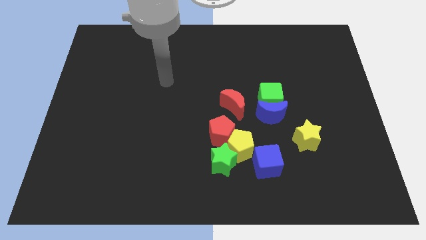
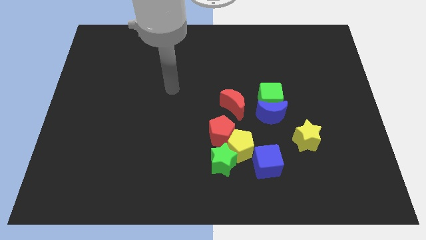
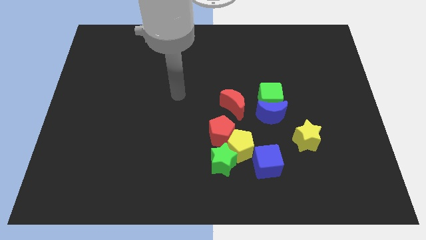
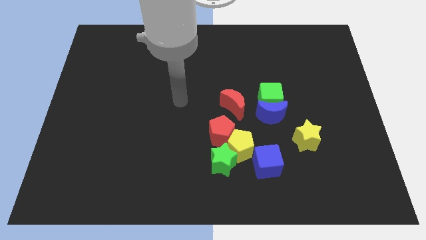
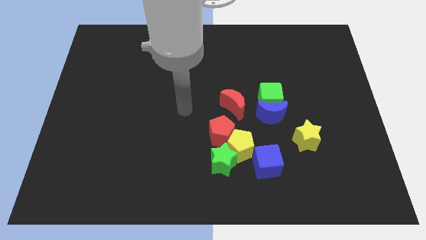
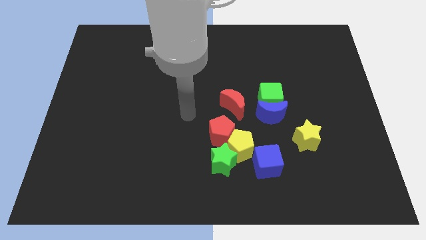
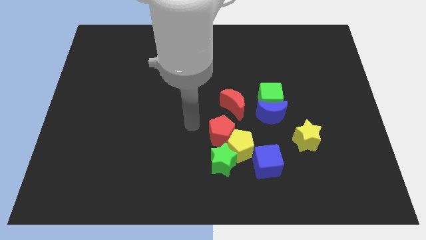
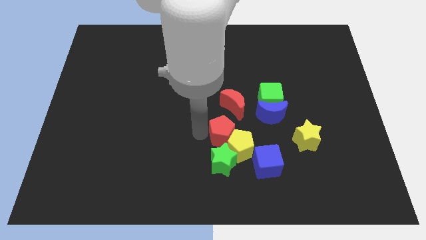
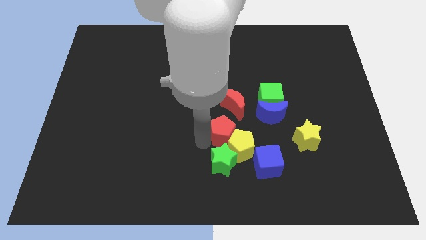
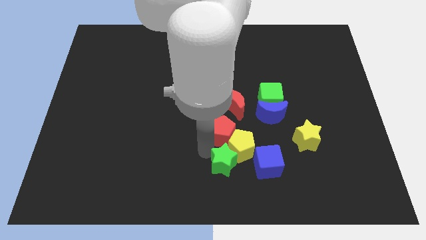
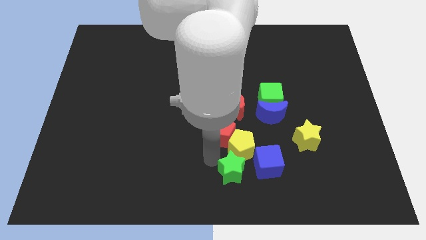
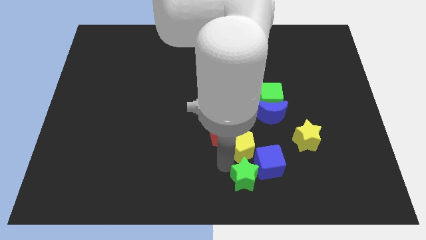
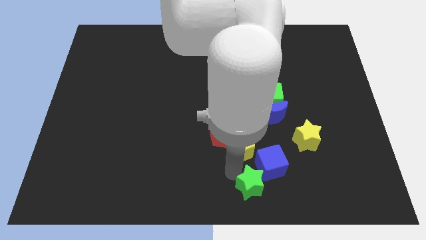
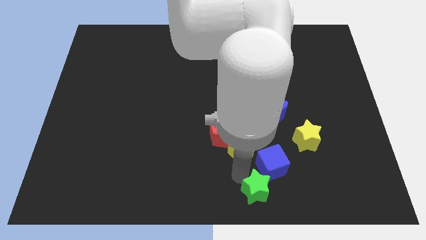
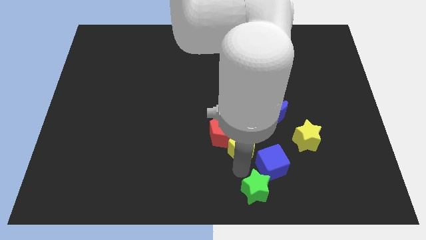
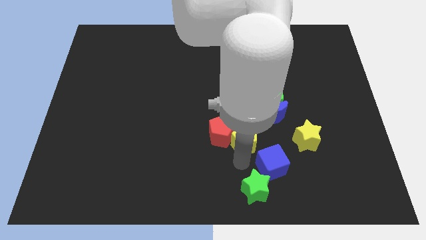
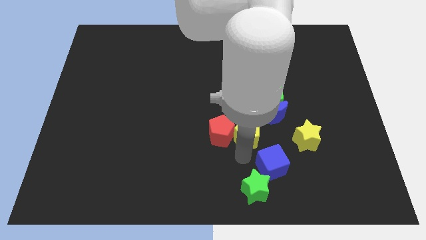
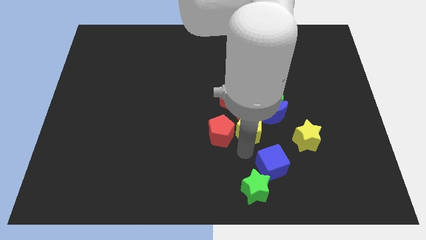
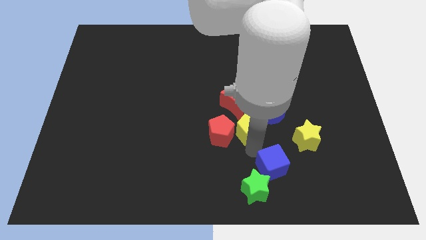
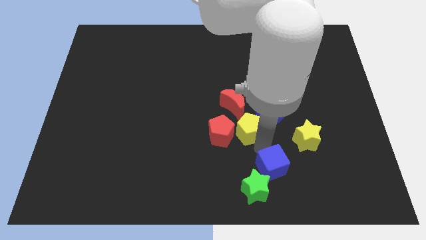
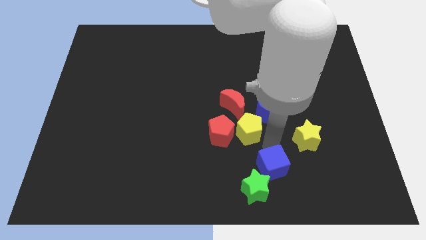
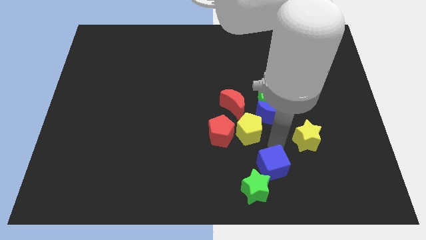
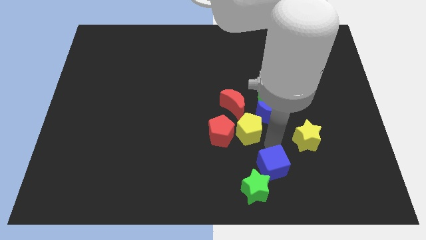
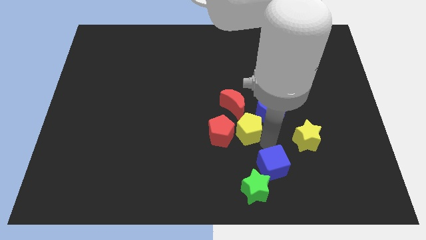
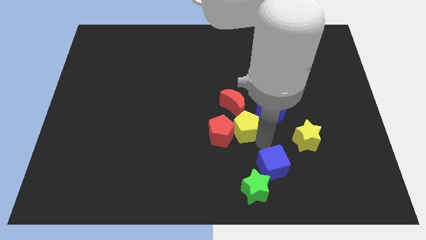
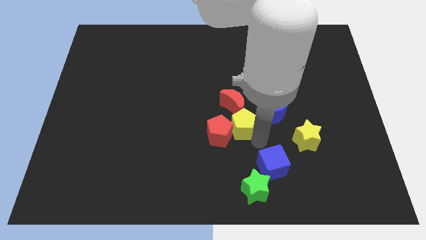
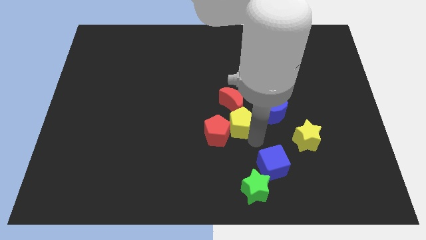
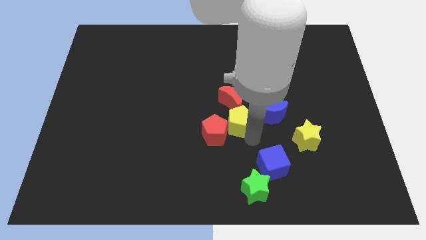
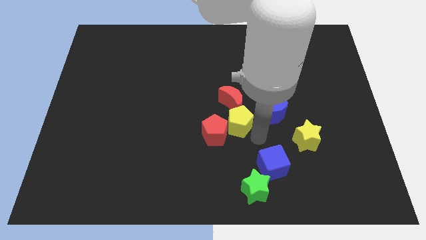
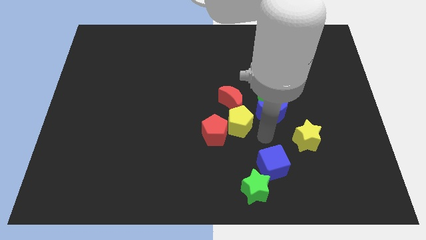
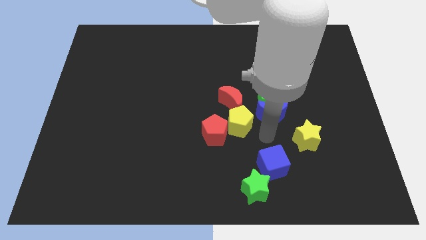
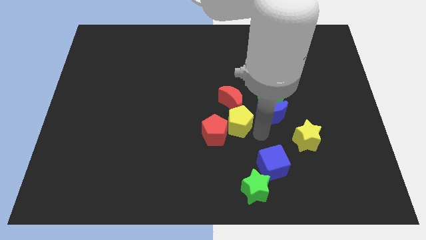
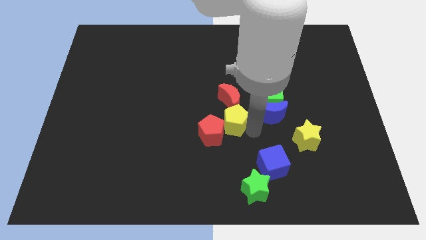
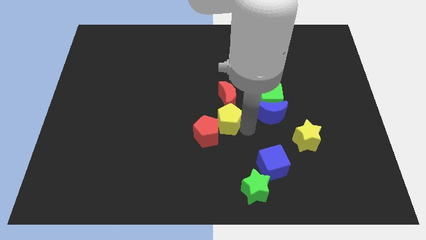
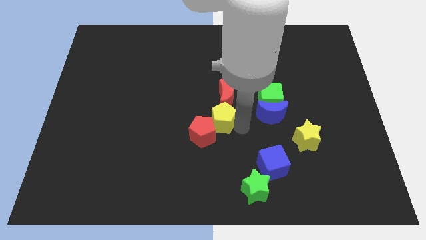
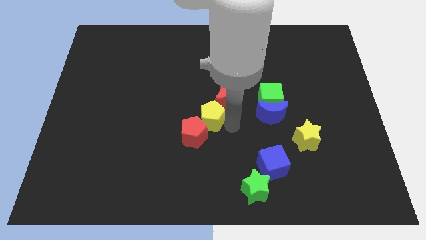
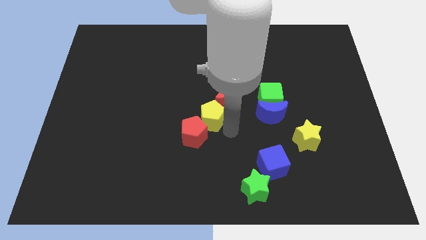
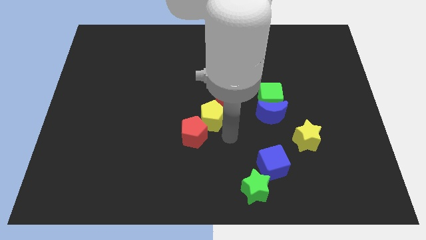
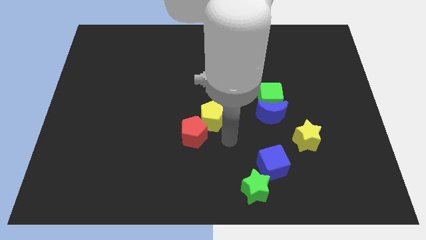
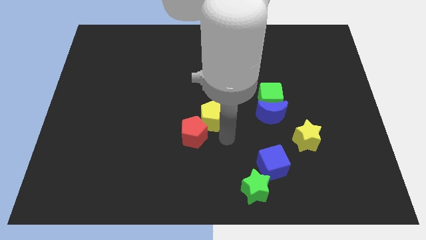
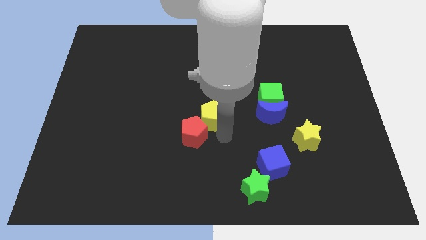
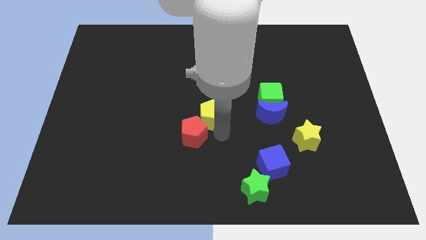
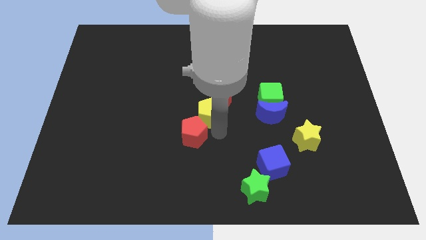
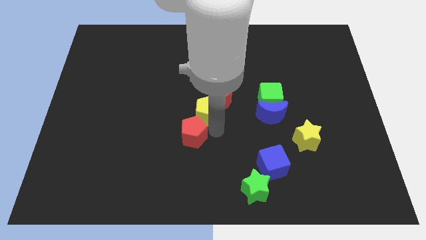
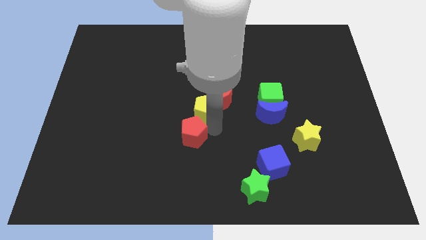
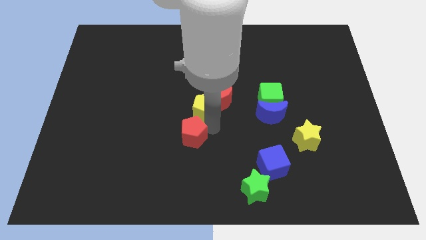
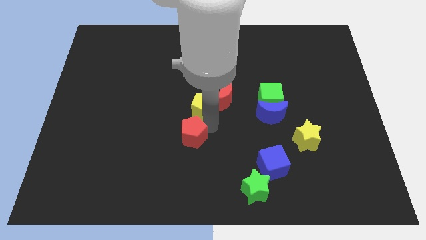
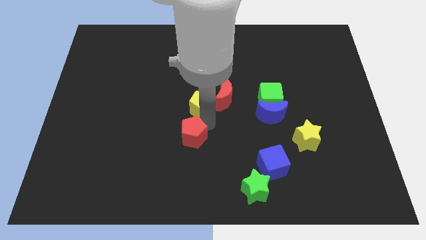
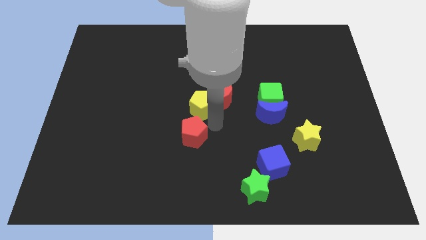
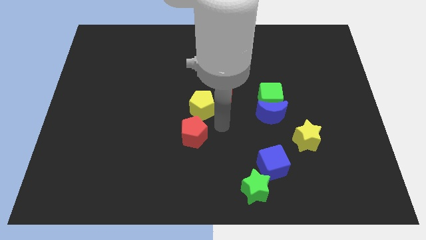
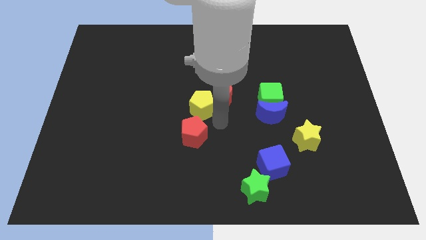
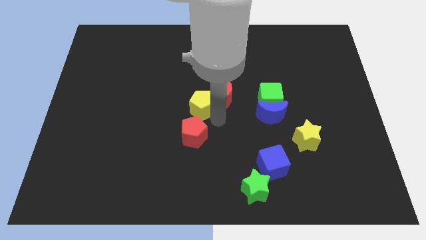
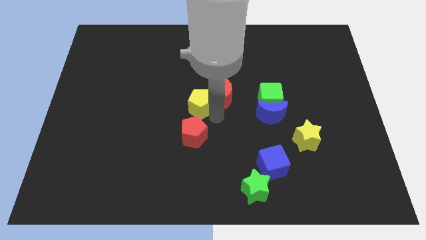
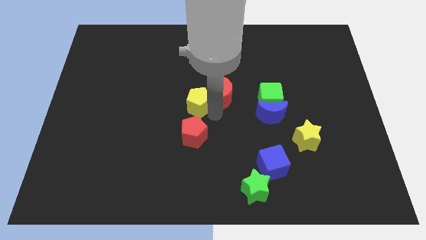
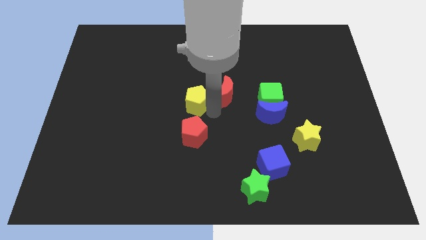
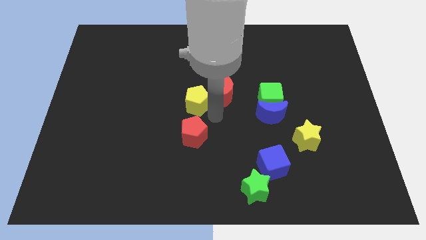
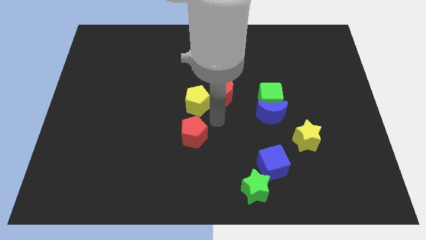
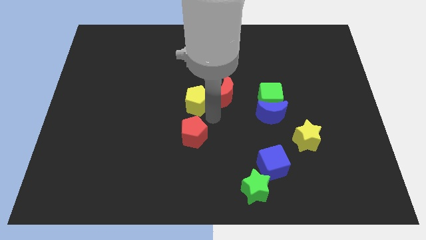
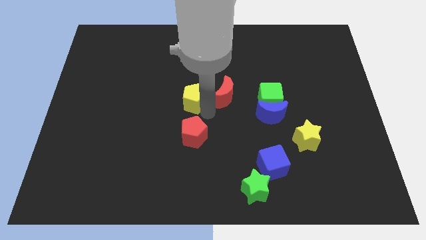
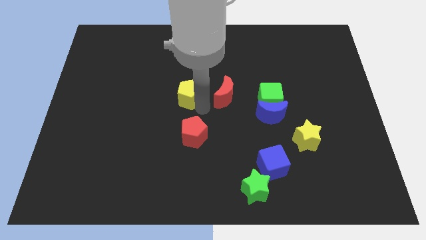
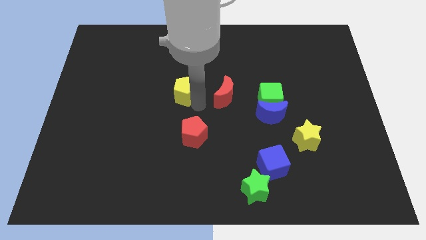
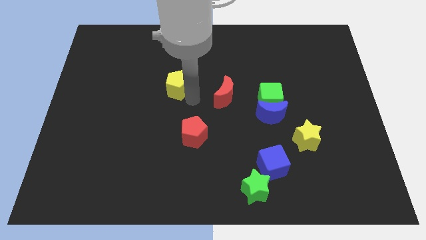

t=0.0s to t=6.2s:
slide the yellow pentagon upwards and left

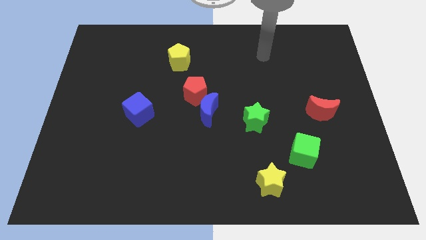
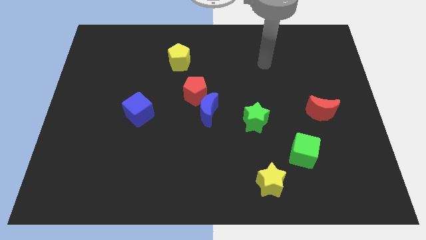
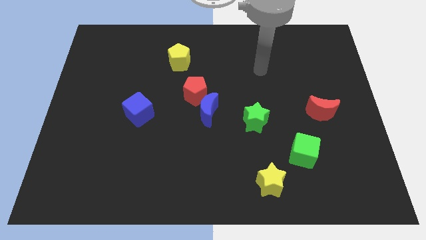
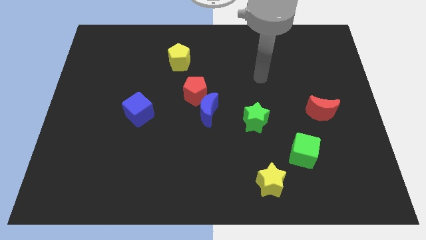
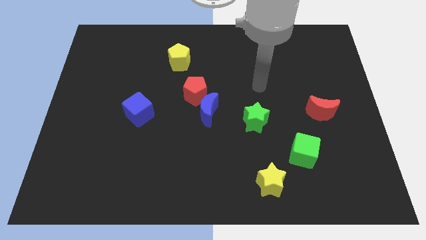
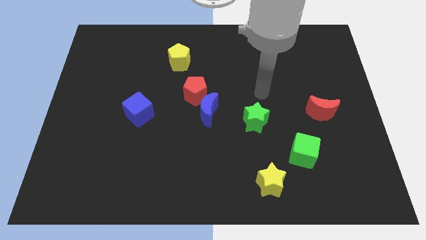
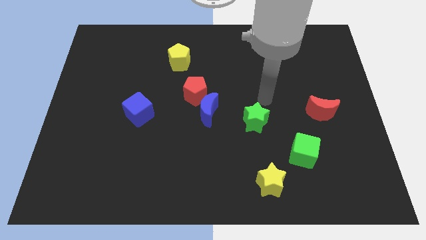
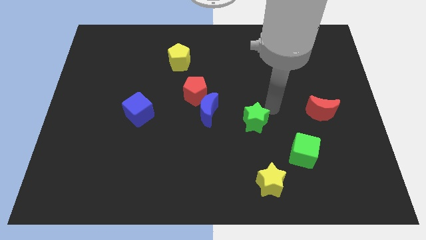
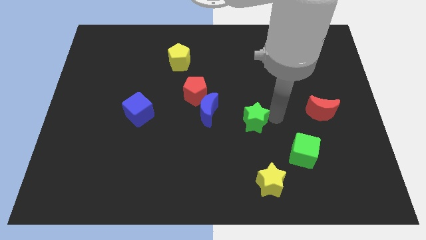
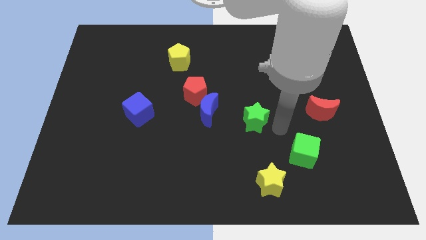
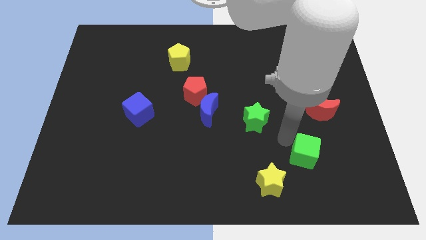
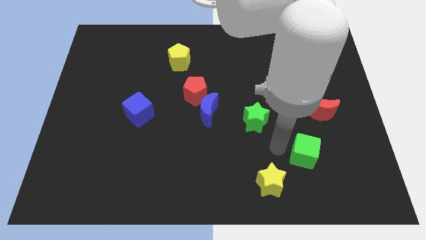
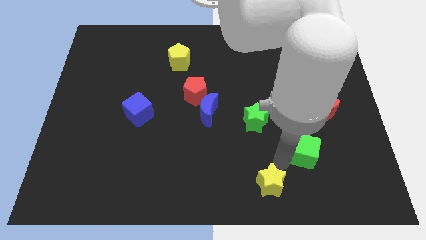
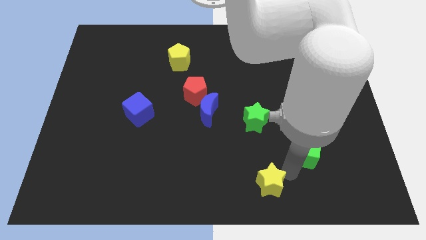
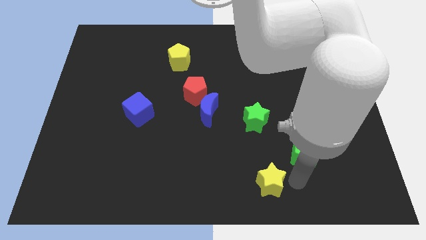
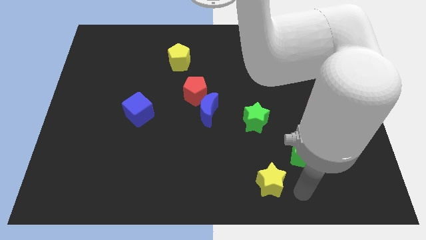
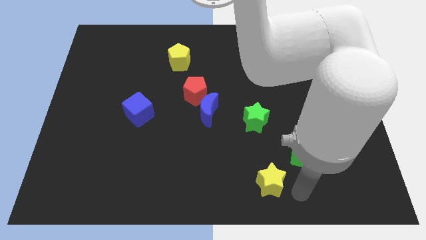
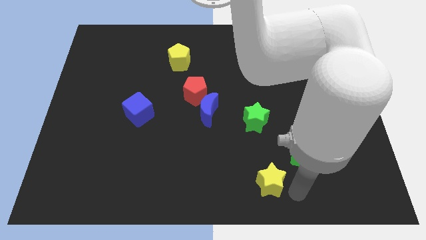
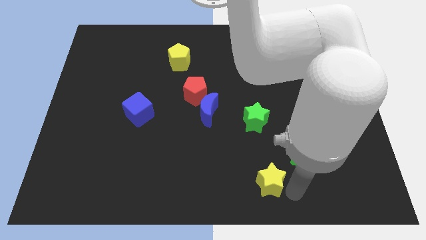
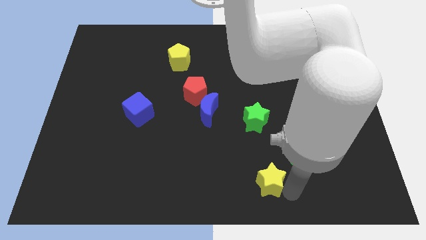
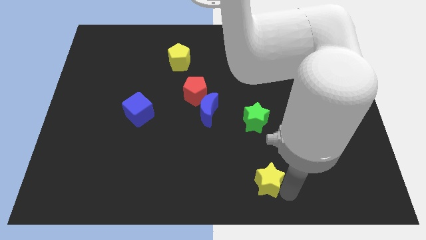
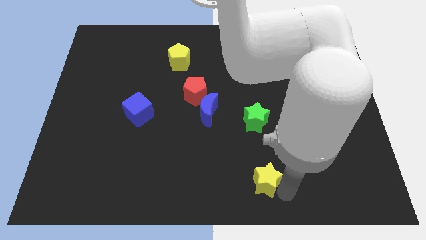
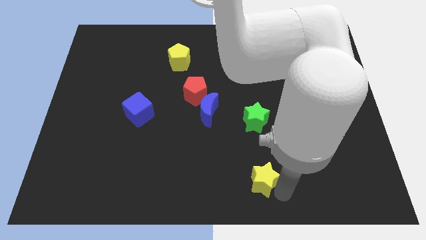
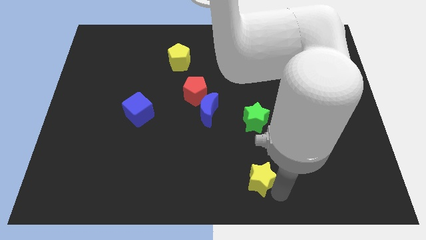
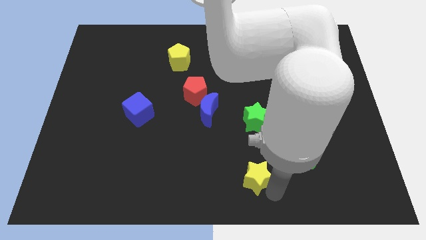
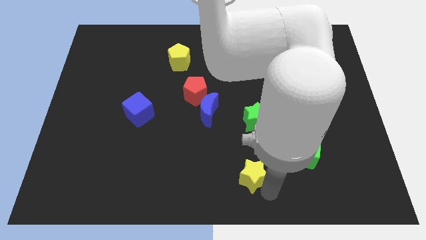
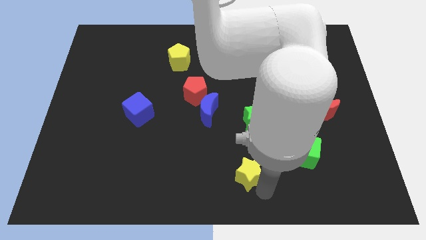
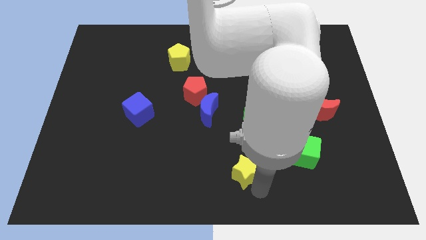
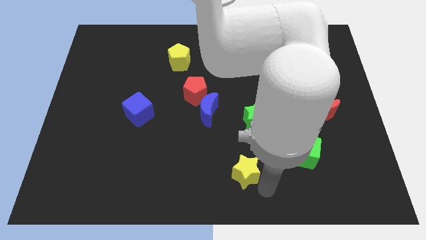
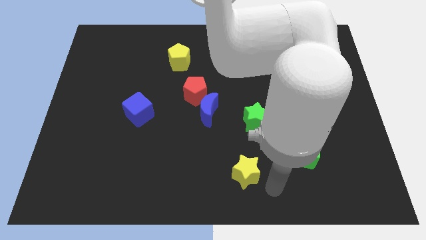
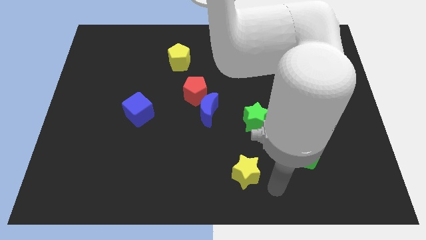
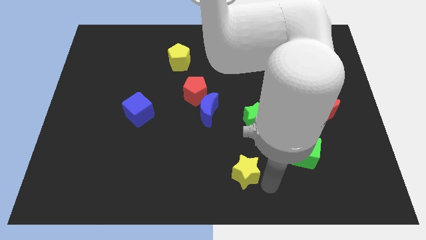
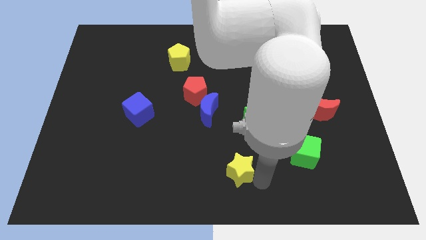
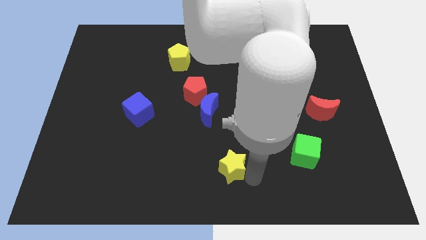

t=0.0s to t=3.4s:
push the yellow star a little upwards and left diagonally
